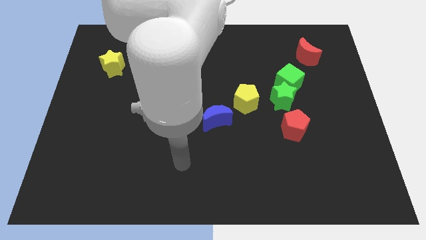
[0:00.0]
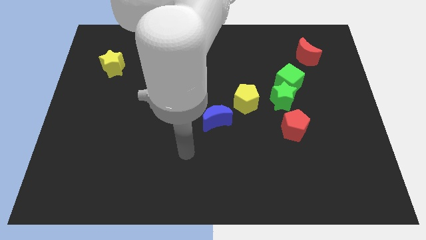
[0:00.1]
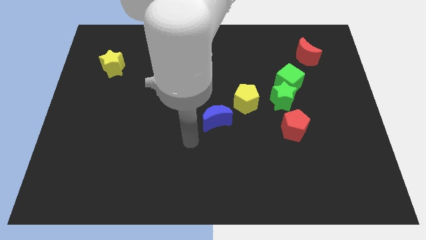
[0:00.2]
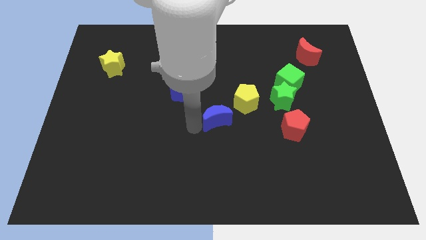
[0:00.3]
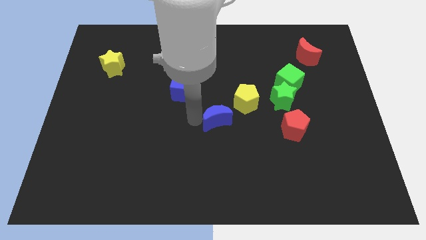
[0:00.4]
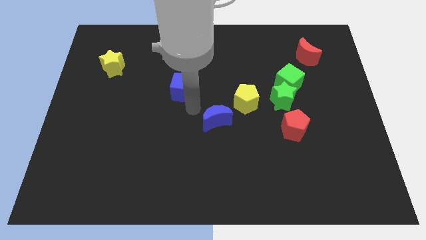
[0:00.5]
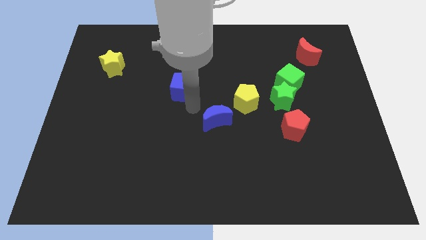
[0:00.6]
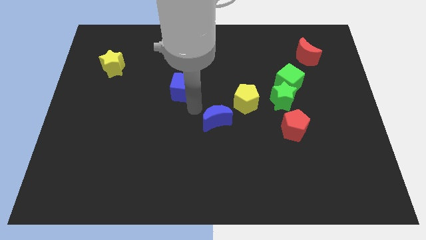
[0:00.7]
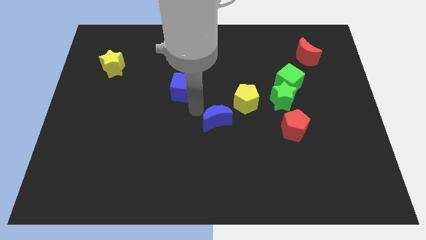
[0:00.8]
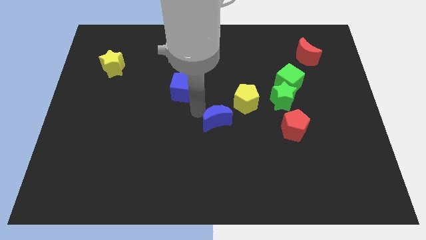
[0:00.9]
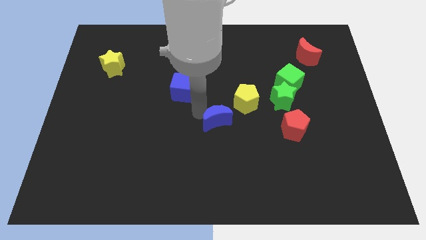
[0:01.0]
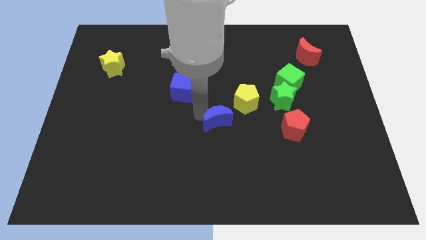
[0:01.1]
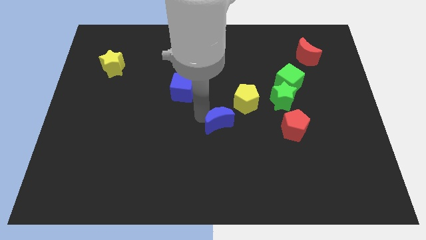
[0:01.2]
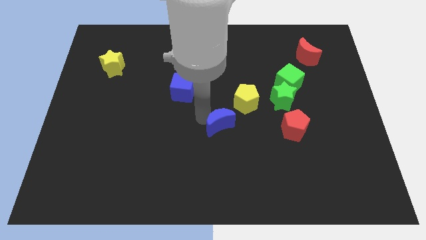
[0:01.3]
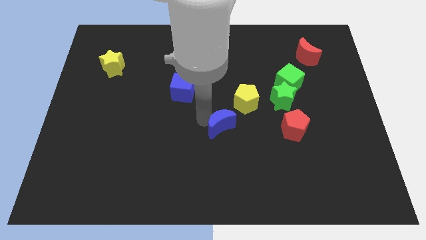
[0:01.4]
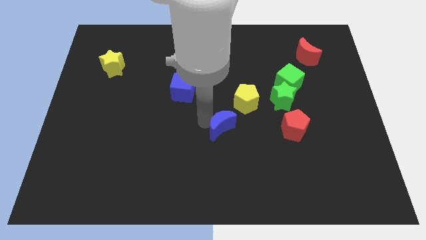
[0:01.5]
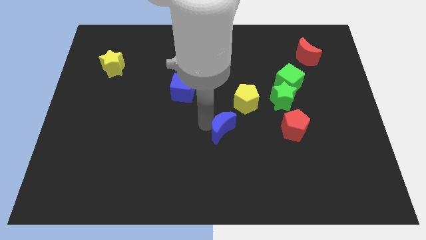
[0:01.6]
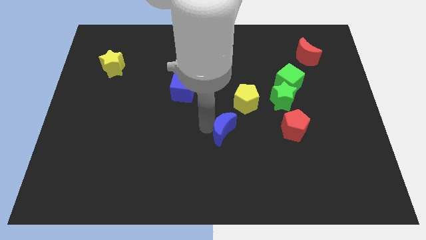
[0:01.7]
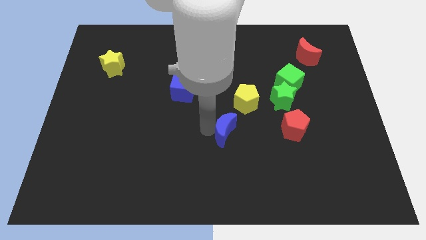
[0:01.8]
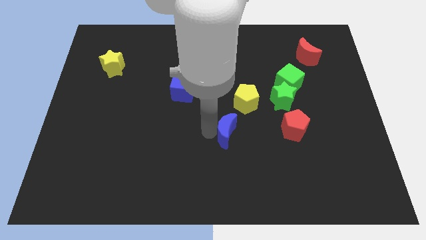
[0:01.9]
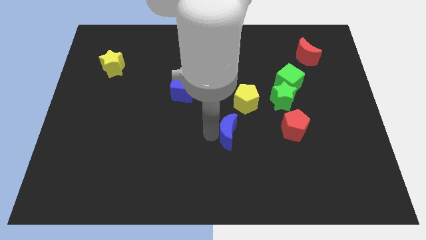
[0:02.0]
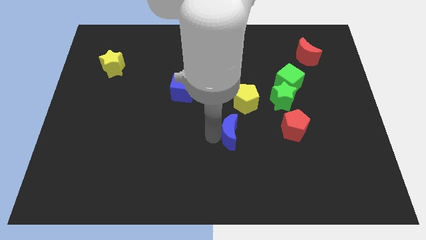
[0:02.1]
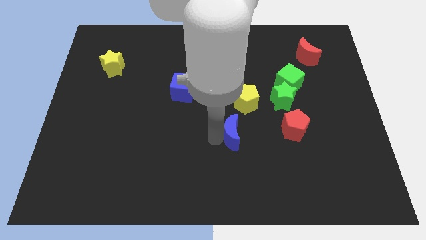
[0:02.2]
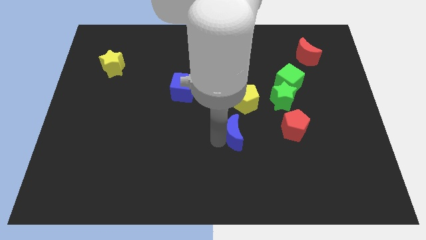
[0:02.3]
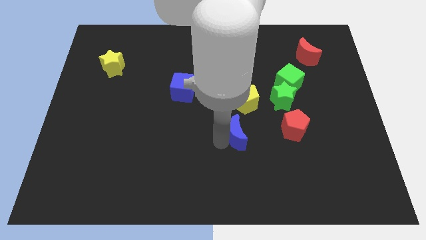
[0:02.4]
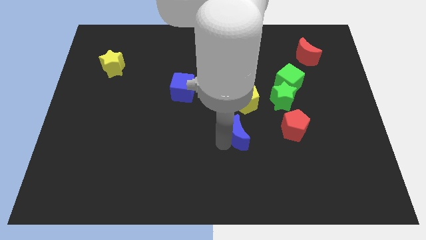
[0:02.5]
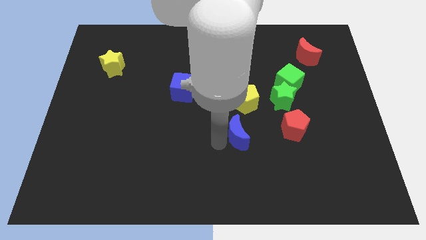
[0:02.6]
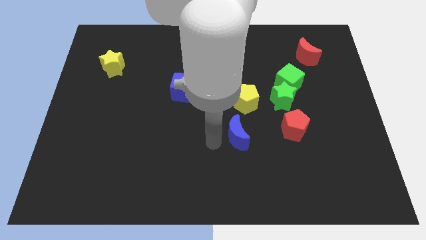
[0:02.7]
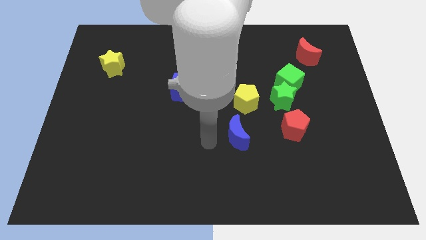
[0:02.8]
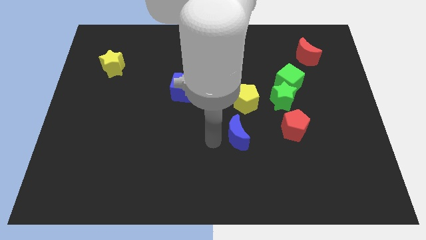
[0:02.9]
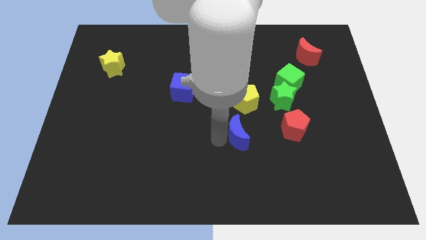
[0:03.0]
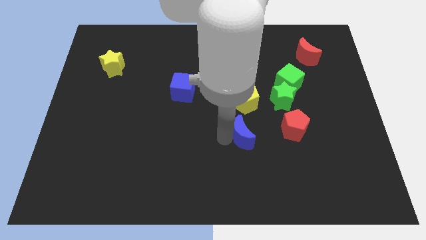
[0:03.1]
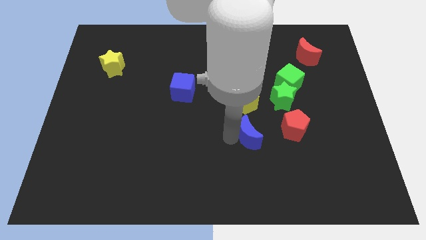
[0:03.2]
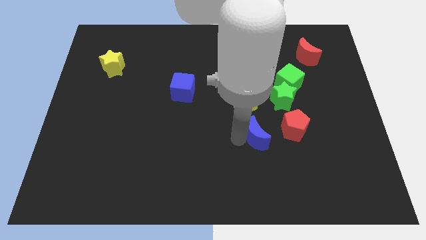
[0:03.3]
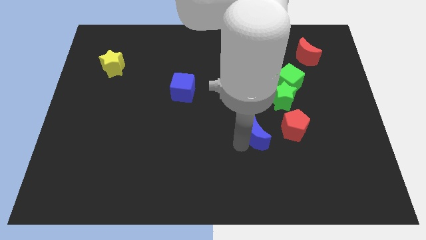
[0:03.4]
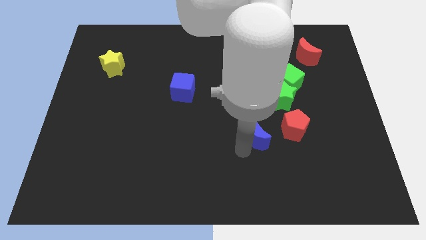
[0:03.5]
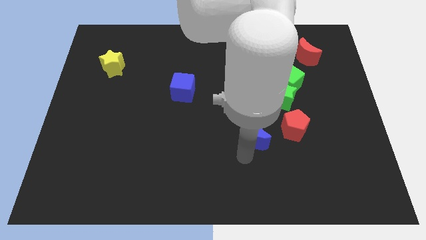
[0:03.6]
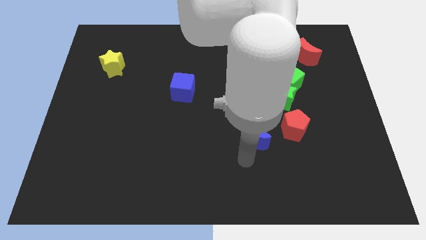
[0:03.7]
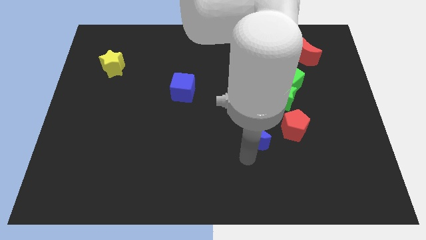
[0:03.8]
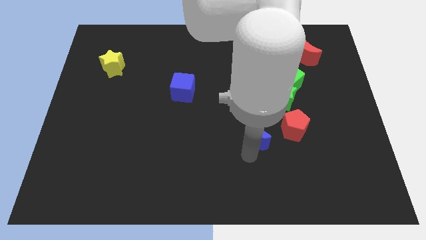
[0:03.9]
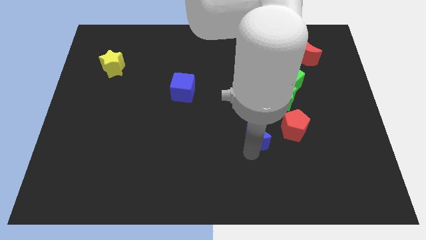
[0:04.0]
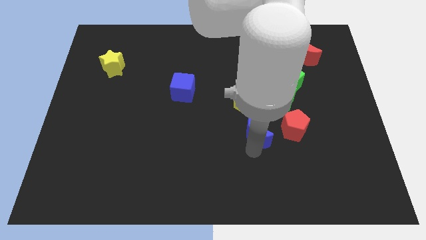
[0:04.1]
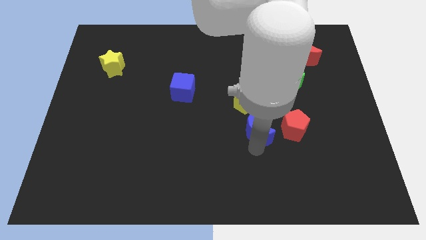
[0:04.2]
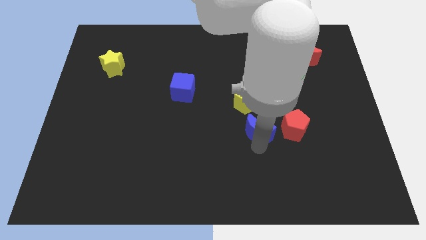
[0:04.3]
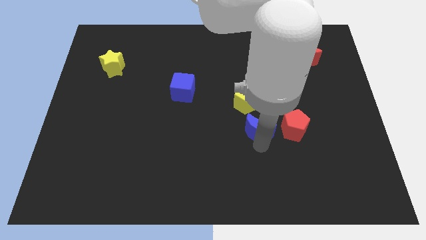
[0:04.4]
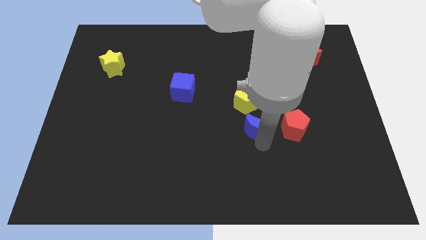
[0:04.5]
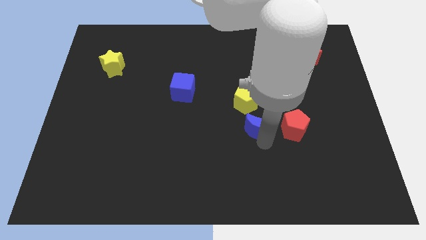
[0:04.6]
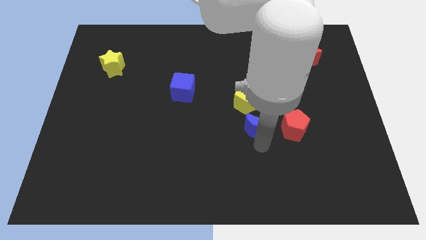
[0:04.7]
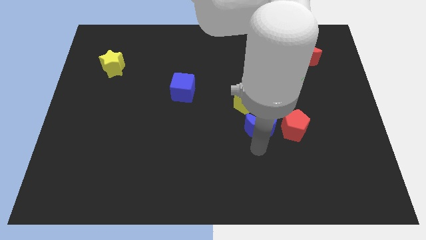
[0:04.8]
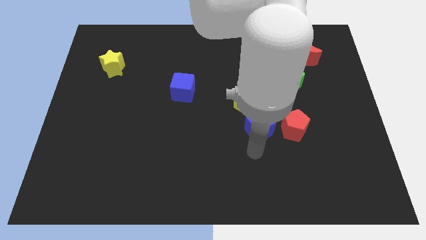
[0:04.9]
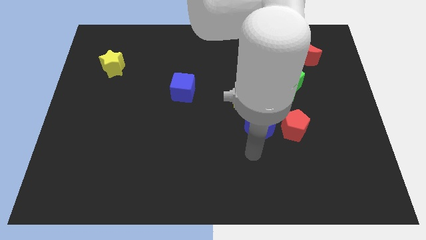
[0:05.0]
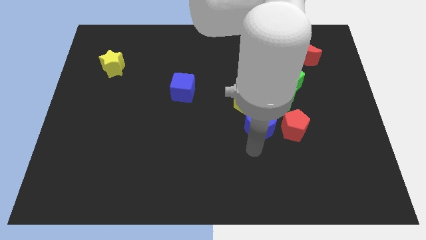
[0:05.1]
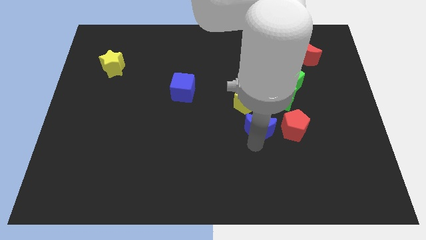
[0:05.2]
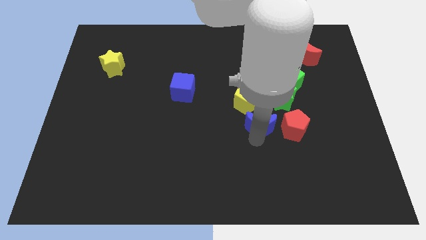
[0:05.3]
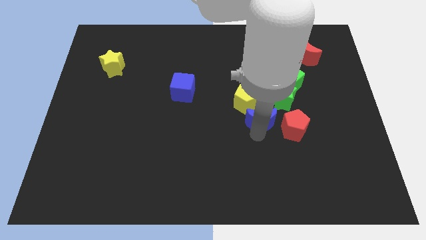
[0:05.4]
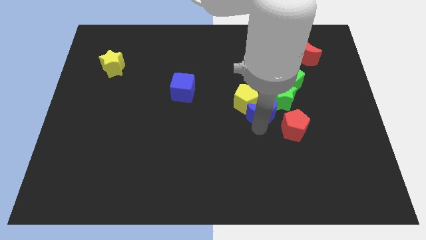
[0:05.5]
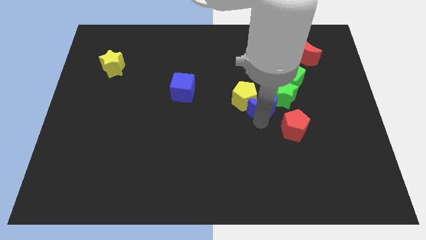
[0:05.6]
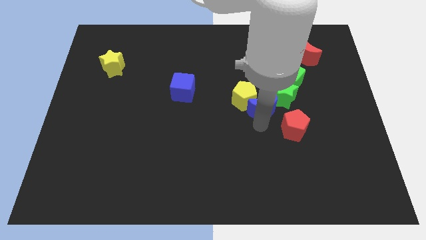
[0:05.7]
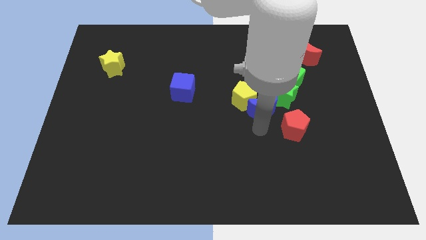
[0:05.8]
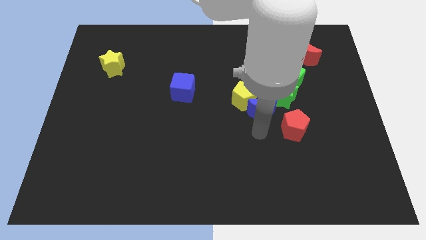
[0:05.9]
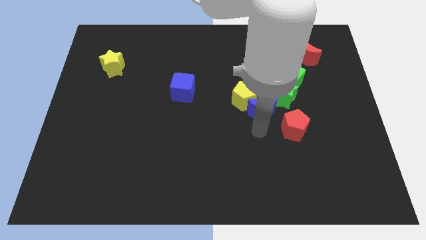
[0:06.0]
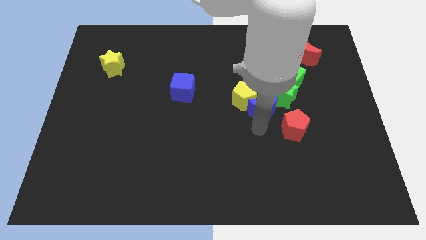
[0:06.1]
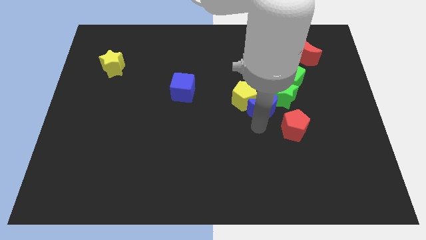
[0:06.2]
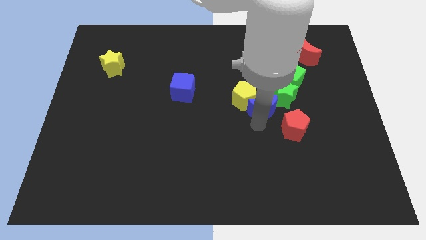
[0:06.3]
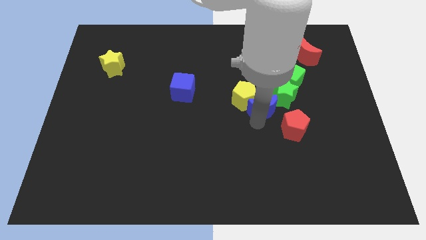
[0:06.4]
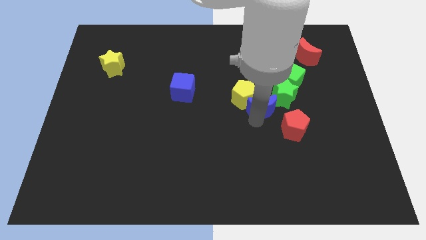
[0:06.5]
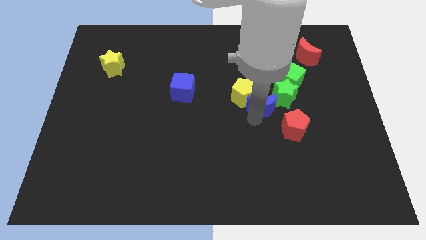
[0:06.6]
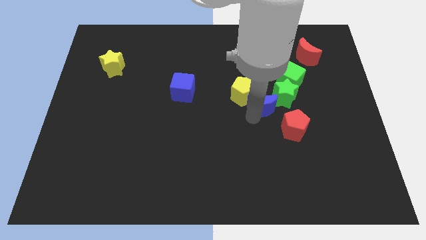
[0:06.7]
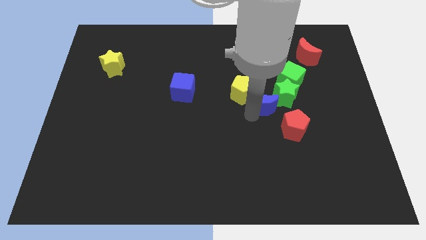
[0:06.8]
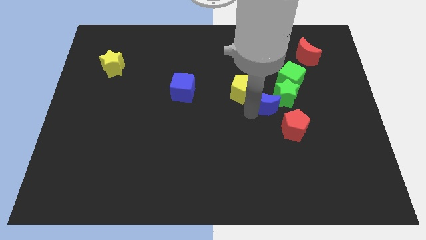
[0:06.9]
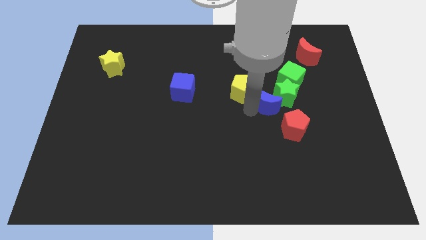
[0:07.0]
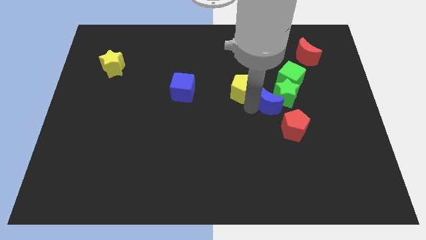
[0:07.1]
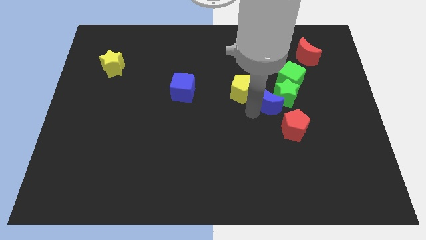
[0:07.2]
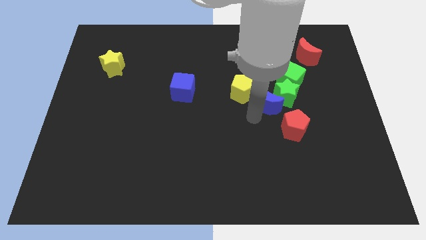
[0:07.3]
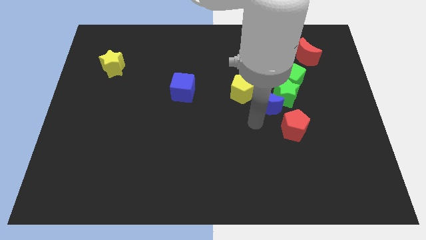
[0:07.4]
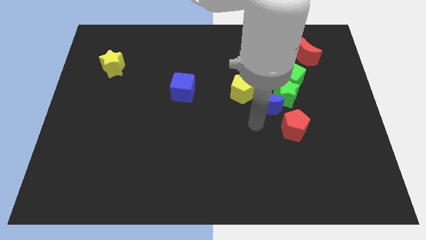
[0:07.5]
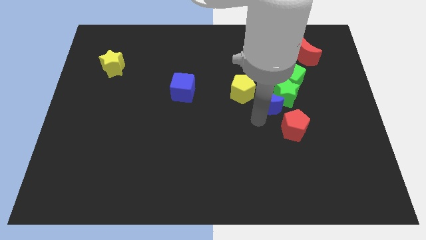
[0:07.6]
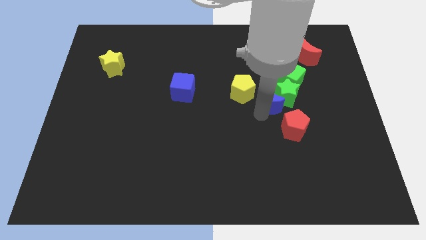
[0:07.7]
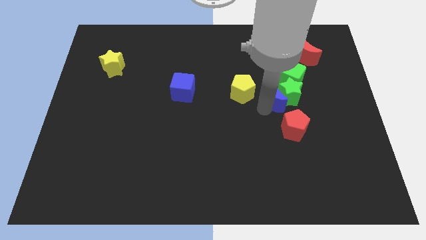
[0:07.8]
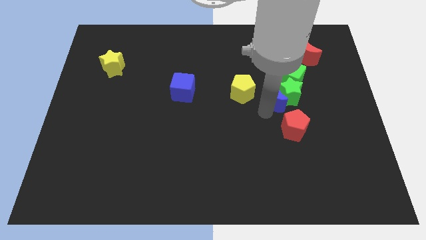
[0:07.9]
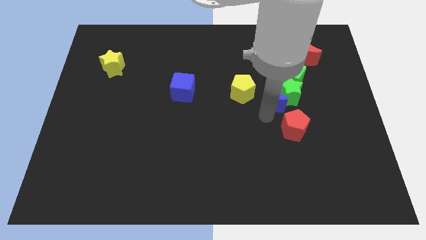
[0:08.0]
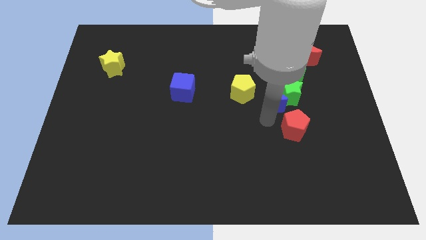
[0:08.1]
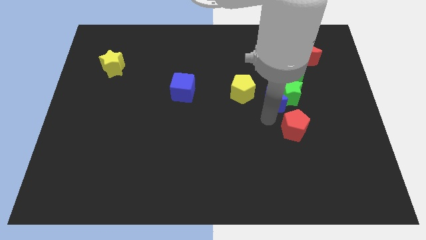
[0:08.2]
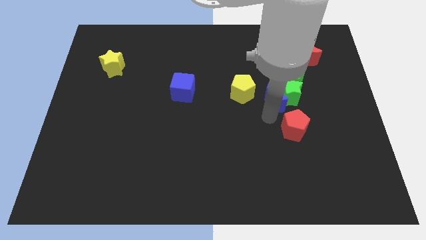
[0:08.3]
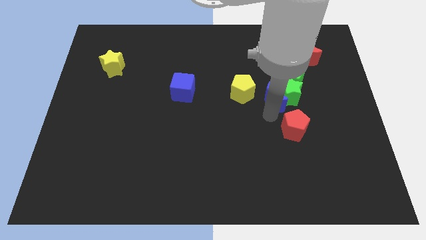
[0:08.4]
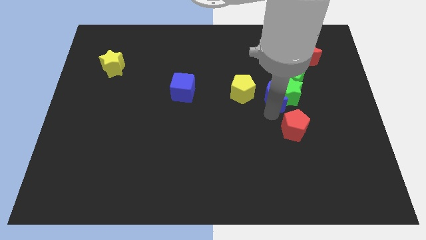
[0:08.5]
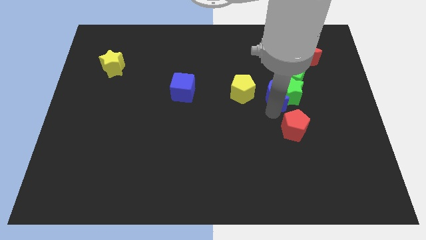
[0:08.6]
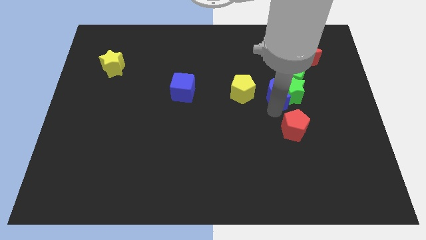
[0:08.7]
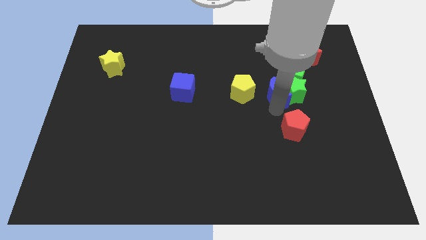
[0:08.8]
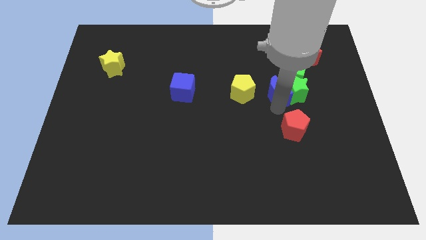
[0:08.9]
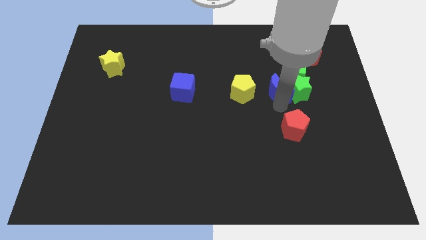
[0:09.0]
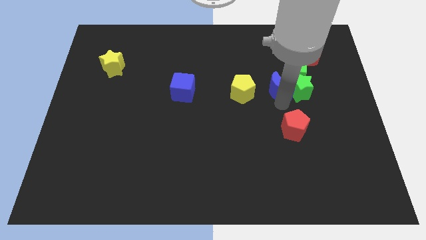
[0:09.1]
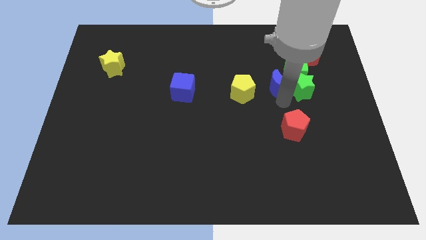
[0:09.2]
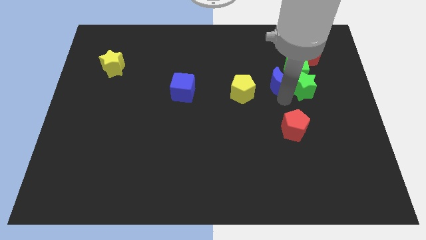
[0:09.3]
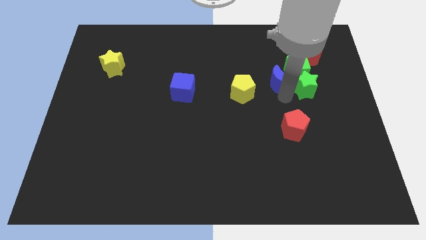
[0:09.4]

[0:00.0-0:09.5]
slide the blue moon towards the green cube
